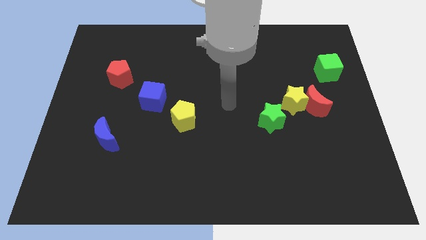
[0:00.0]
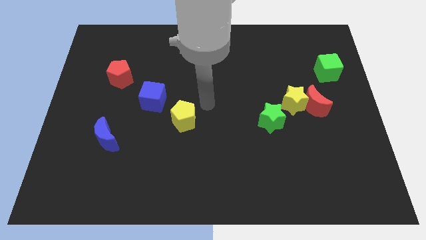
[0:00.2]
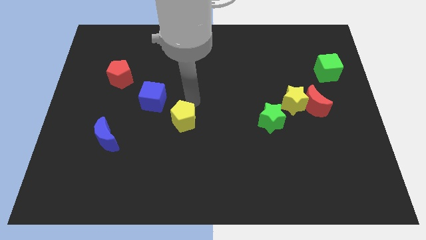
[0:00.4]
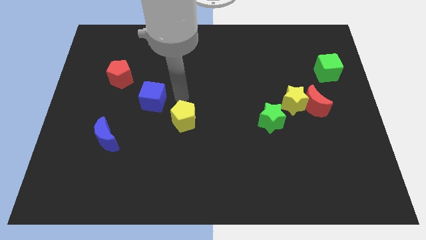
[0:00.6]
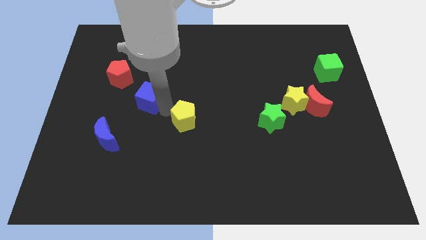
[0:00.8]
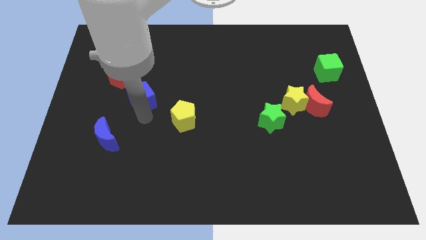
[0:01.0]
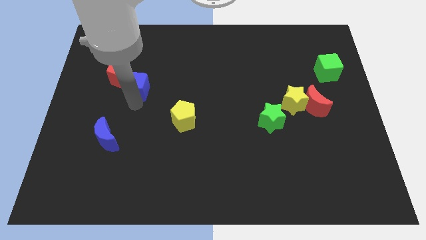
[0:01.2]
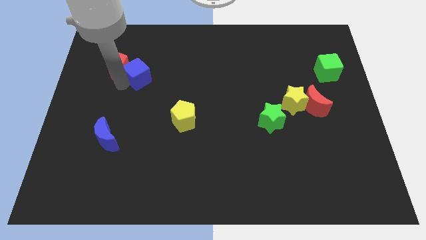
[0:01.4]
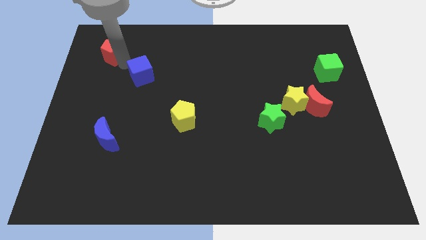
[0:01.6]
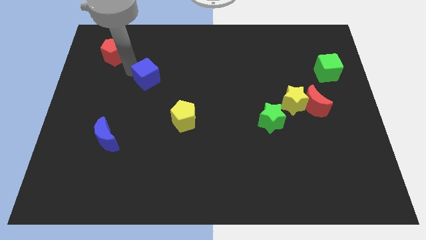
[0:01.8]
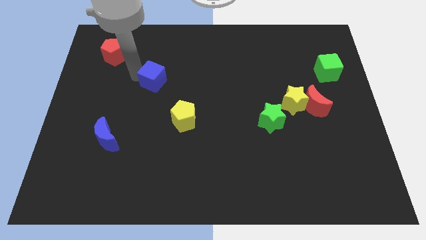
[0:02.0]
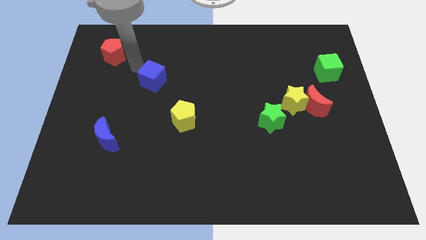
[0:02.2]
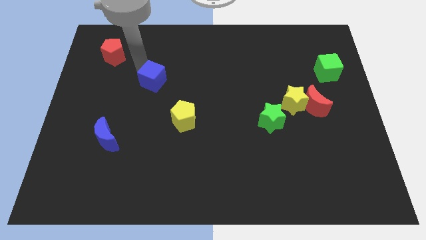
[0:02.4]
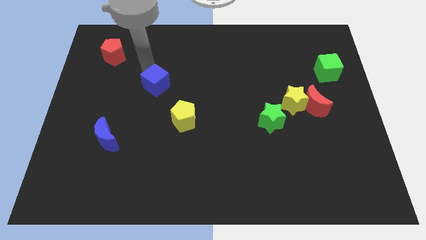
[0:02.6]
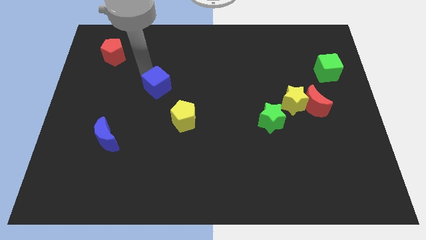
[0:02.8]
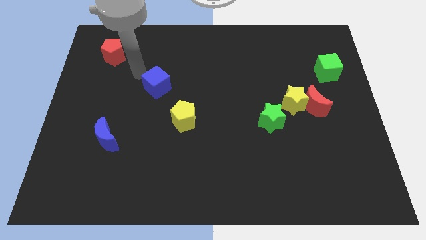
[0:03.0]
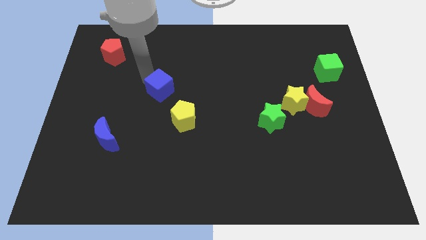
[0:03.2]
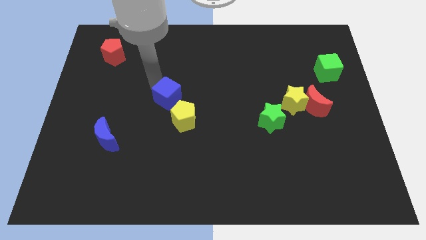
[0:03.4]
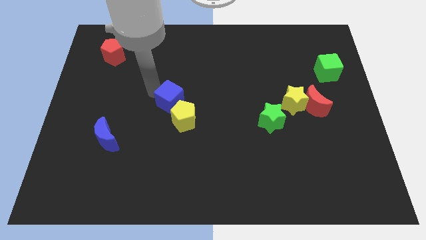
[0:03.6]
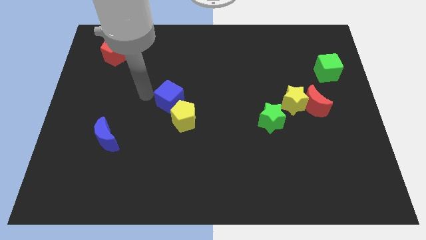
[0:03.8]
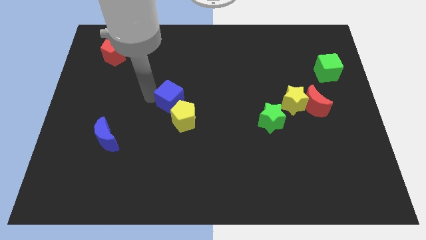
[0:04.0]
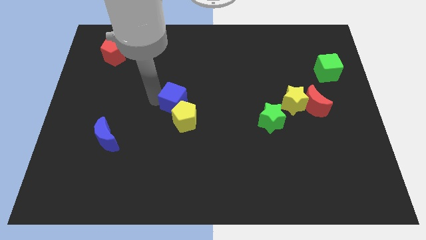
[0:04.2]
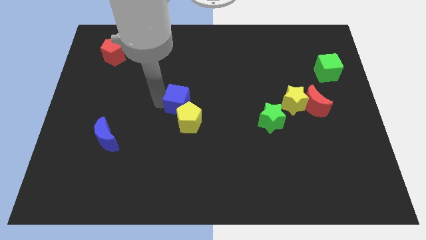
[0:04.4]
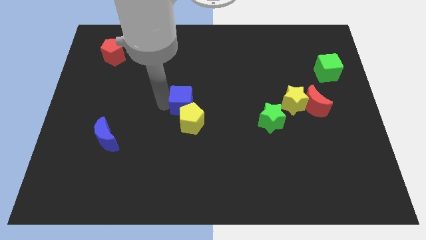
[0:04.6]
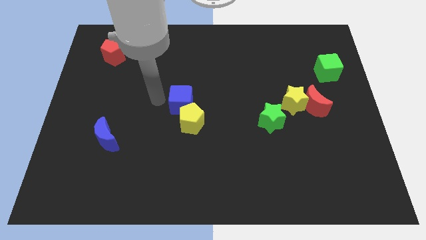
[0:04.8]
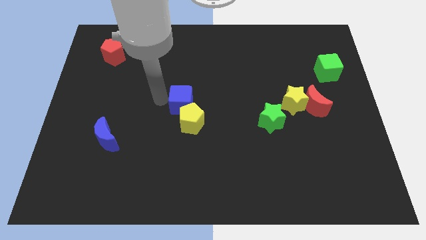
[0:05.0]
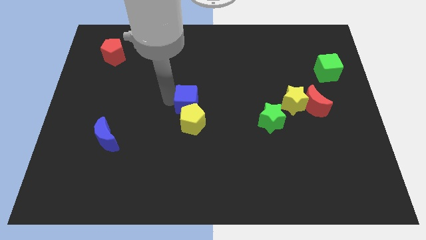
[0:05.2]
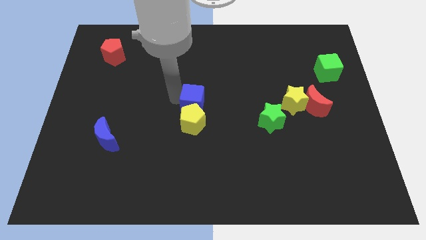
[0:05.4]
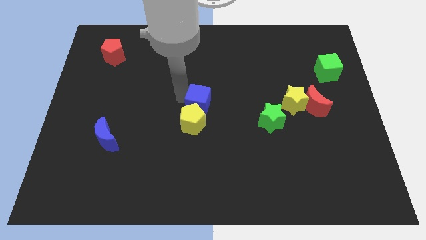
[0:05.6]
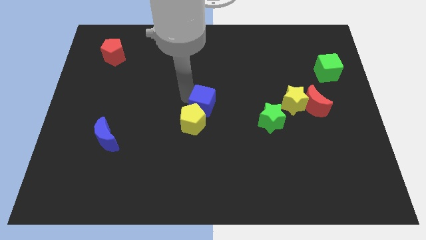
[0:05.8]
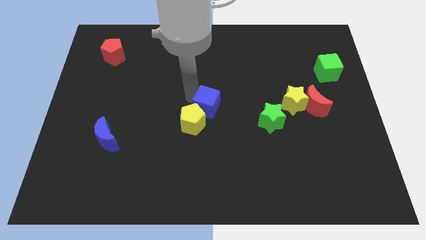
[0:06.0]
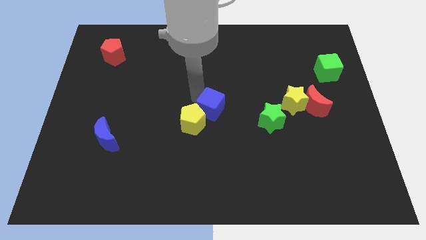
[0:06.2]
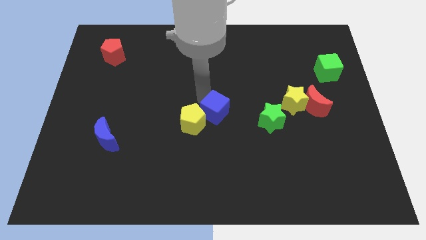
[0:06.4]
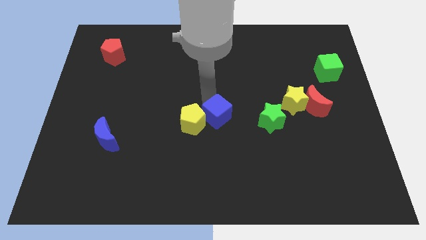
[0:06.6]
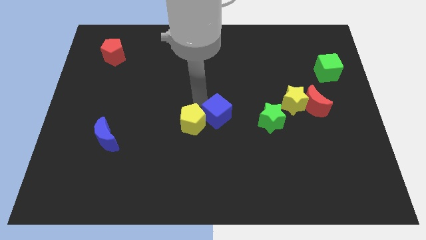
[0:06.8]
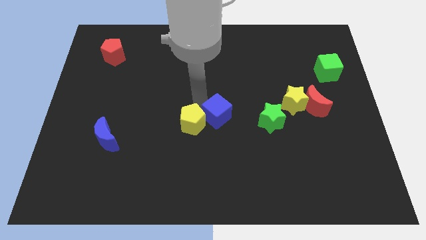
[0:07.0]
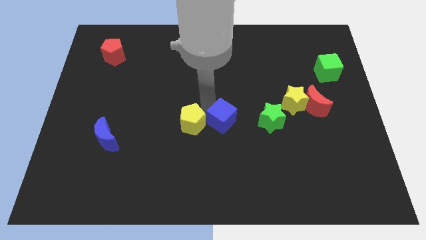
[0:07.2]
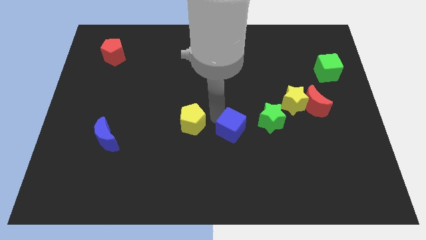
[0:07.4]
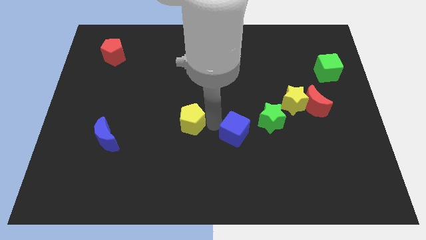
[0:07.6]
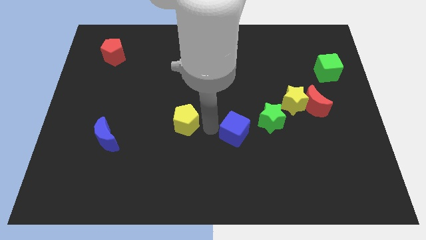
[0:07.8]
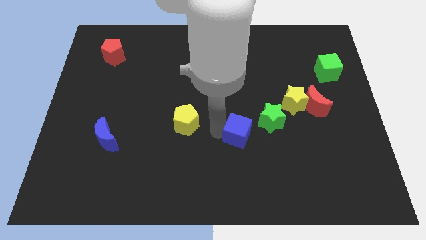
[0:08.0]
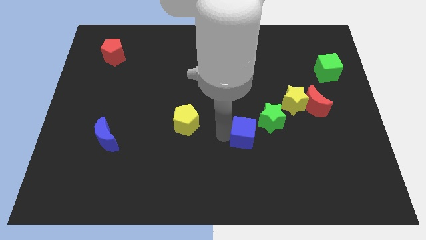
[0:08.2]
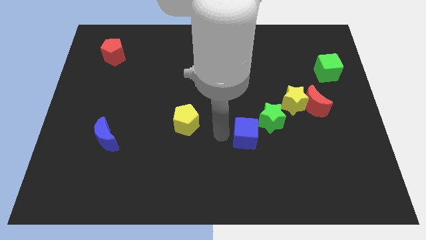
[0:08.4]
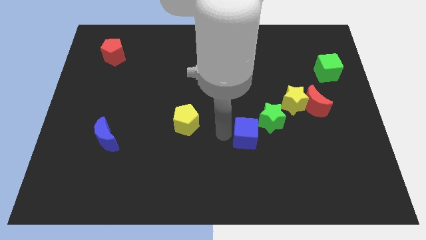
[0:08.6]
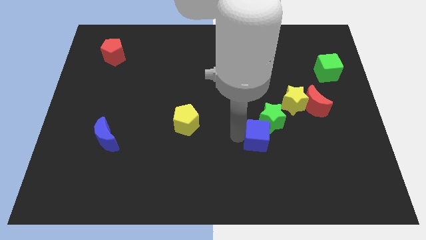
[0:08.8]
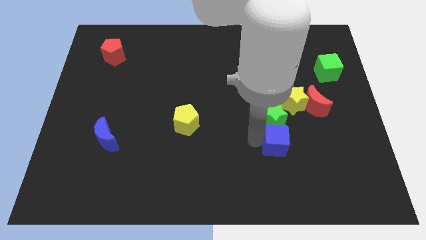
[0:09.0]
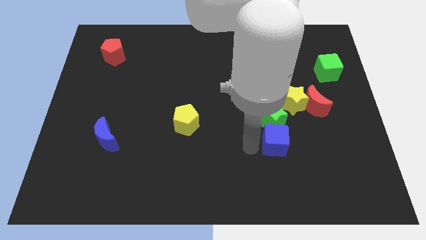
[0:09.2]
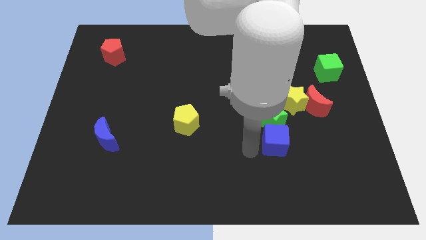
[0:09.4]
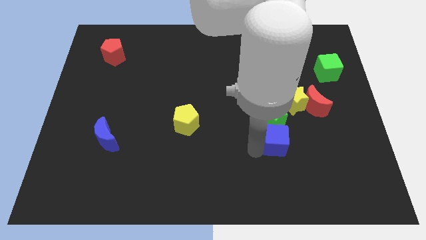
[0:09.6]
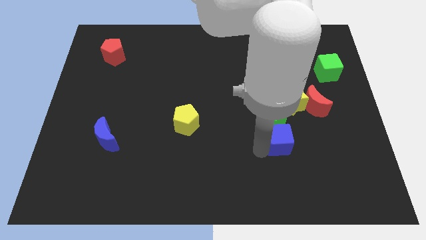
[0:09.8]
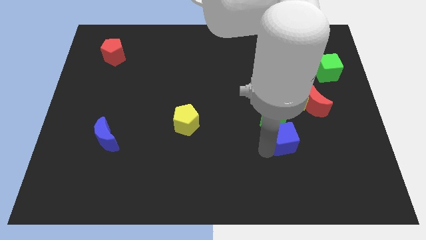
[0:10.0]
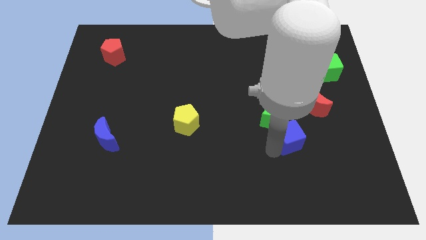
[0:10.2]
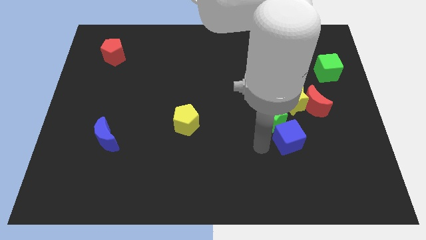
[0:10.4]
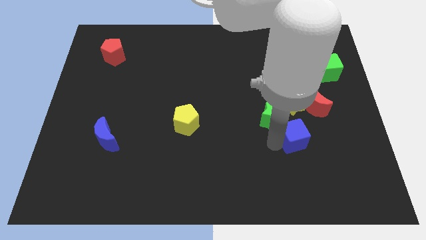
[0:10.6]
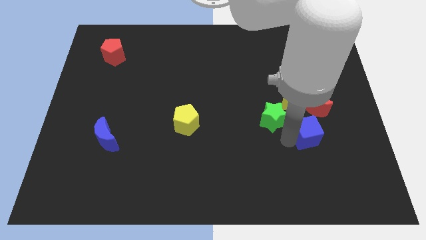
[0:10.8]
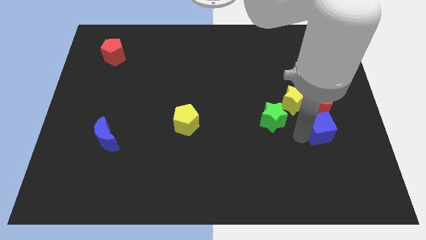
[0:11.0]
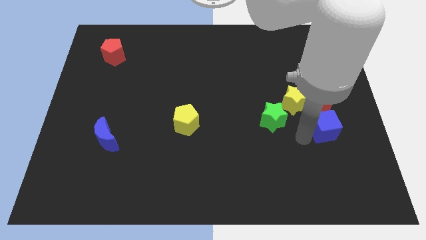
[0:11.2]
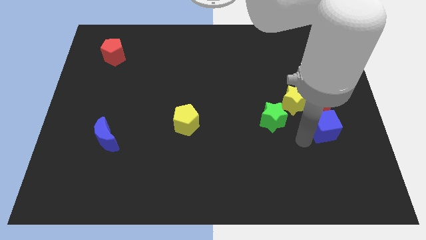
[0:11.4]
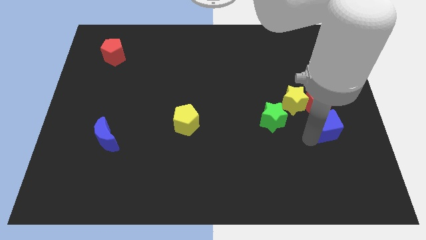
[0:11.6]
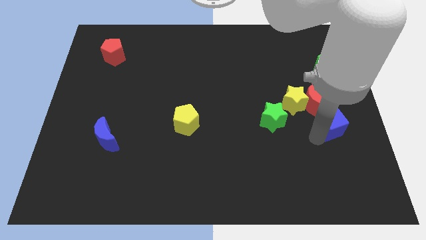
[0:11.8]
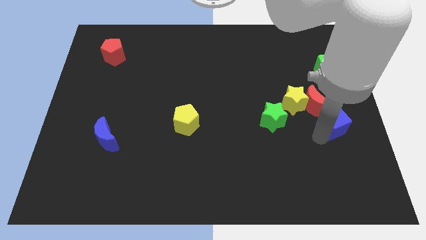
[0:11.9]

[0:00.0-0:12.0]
push the blue cube to the center right
